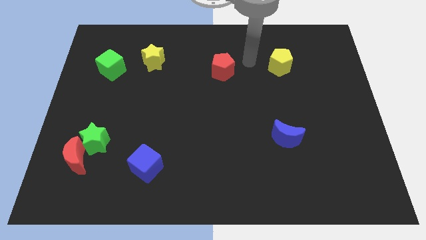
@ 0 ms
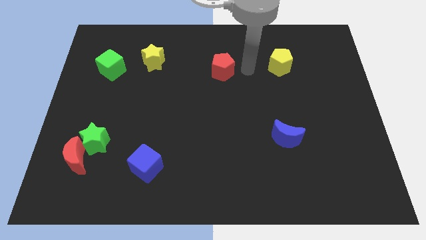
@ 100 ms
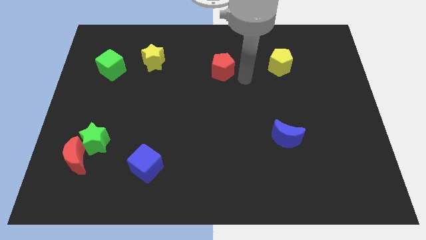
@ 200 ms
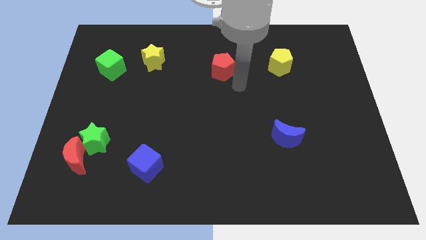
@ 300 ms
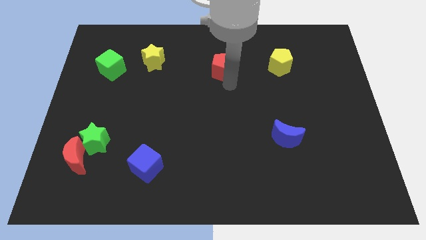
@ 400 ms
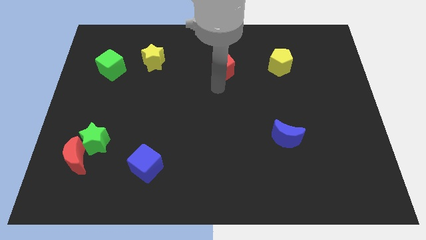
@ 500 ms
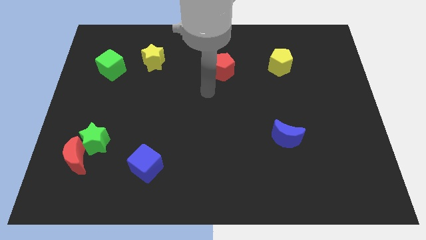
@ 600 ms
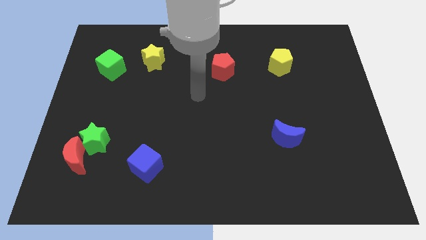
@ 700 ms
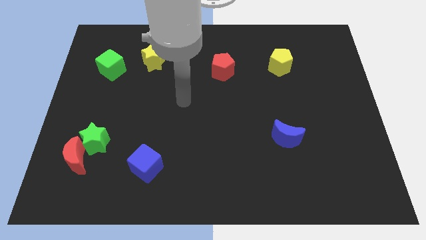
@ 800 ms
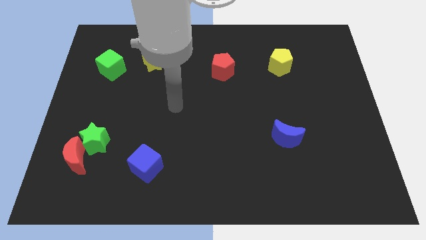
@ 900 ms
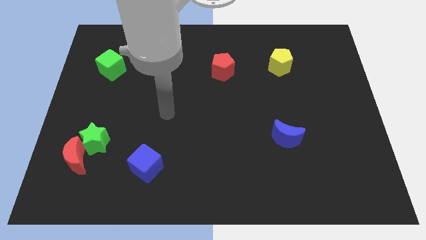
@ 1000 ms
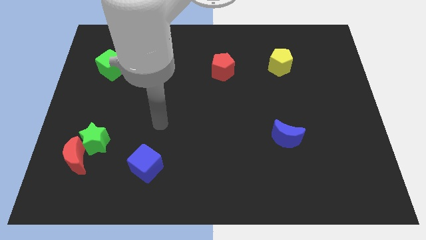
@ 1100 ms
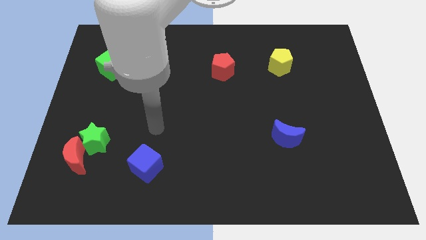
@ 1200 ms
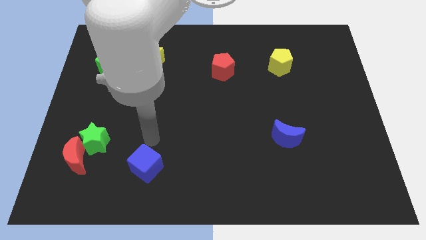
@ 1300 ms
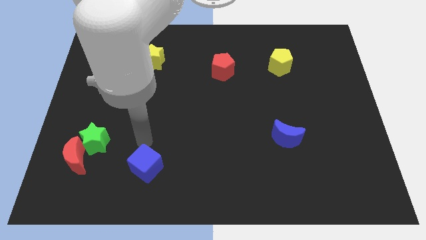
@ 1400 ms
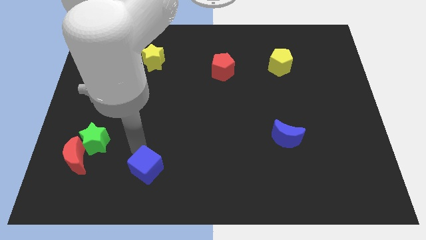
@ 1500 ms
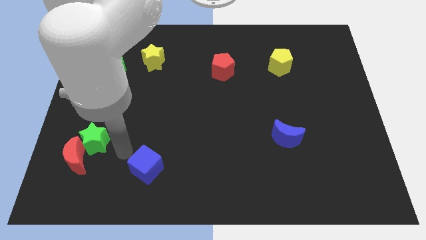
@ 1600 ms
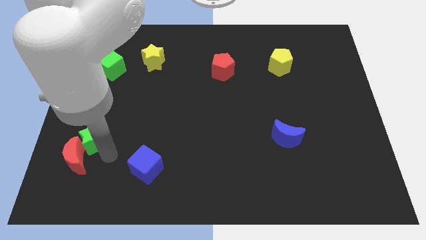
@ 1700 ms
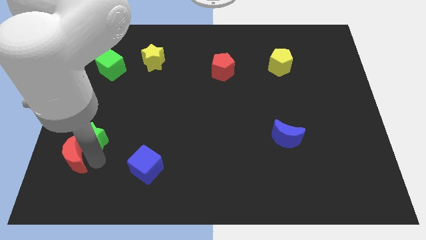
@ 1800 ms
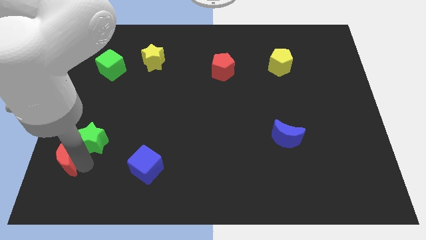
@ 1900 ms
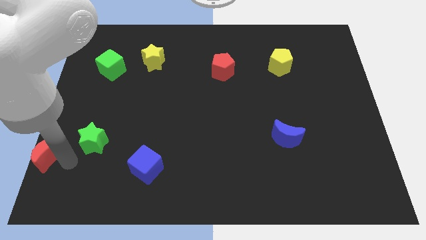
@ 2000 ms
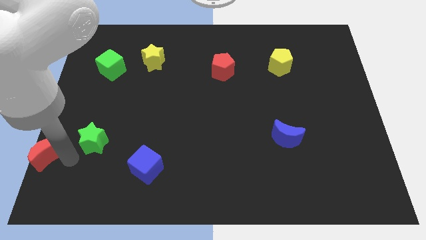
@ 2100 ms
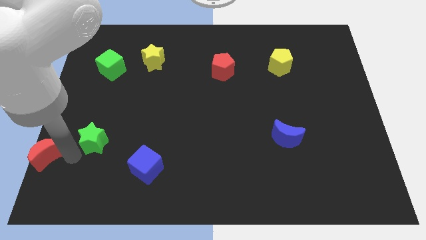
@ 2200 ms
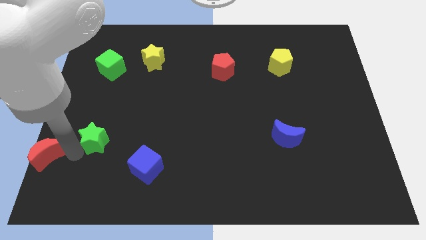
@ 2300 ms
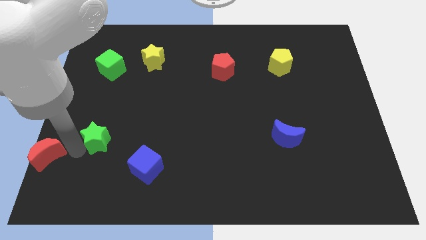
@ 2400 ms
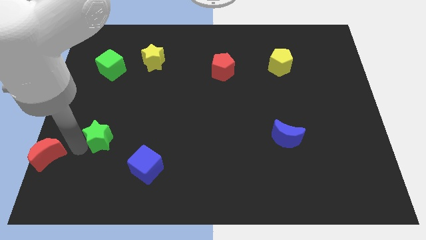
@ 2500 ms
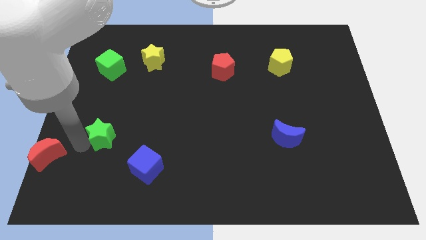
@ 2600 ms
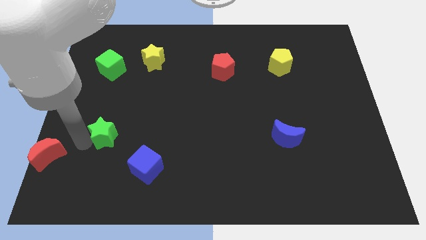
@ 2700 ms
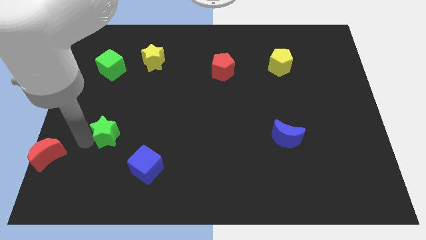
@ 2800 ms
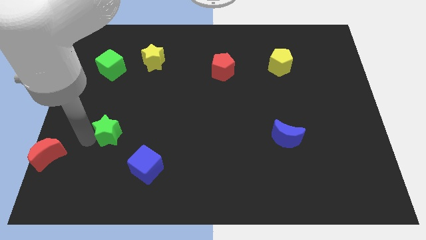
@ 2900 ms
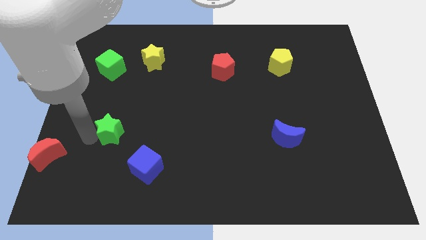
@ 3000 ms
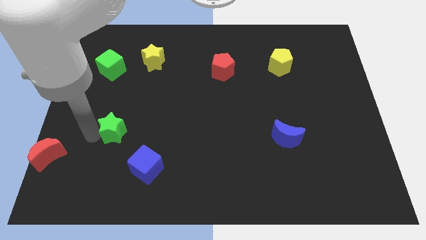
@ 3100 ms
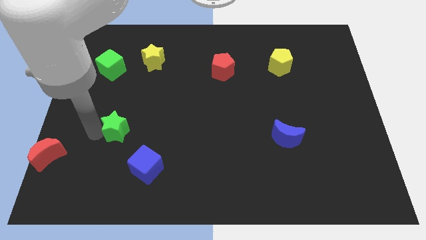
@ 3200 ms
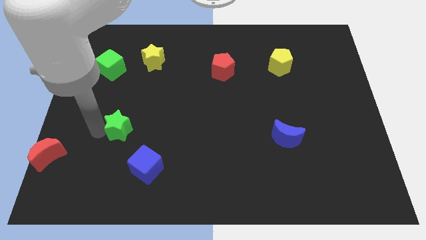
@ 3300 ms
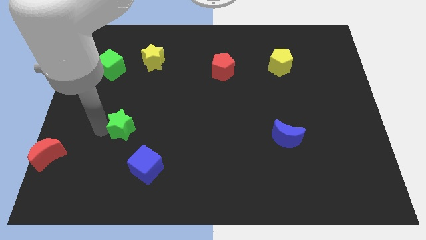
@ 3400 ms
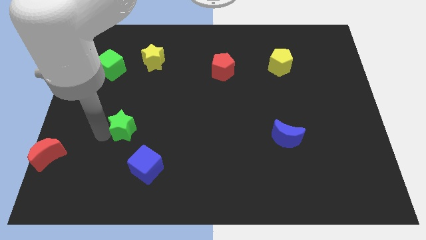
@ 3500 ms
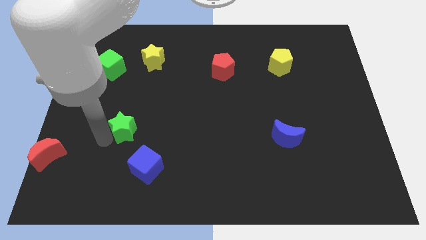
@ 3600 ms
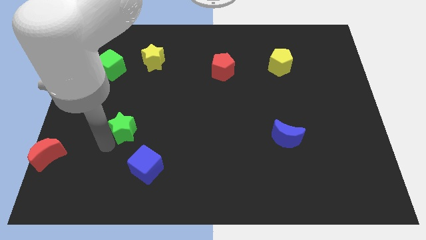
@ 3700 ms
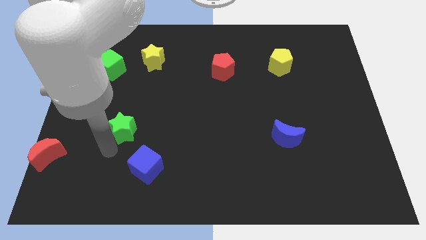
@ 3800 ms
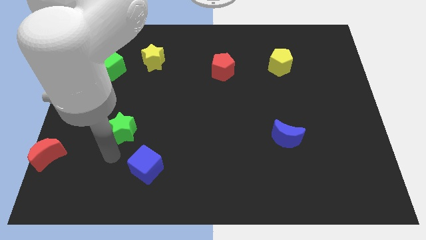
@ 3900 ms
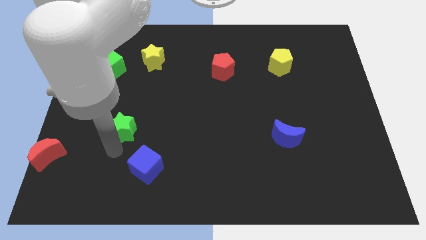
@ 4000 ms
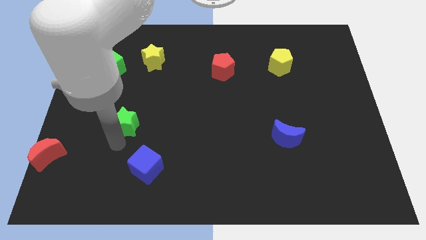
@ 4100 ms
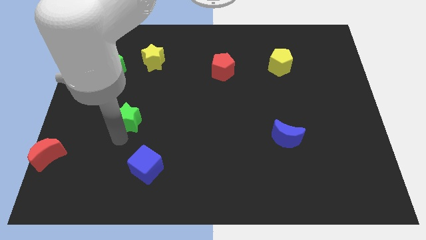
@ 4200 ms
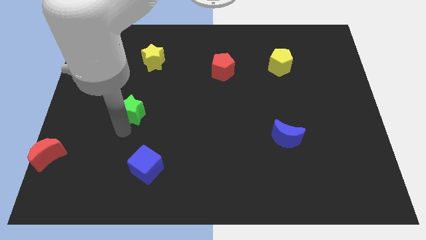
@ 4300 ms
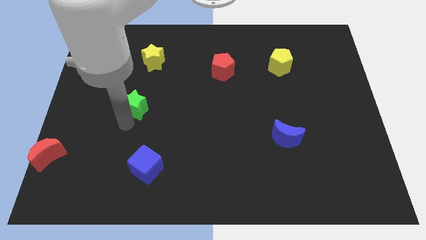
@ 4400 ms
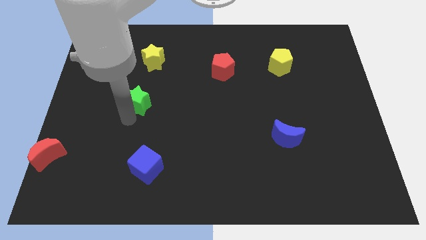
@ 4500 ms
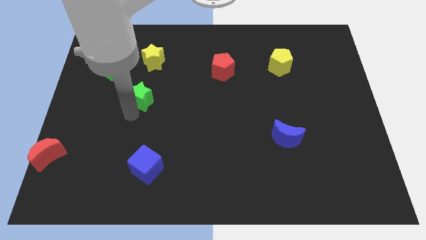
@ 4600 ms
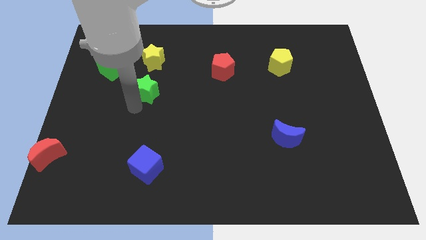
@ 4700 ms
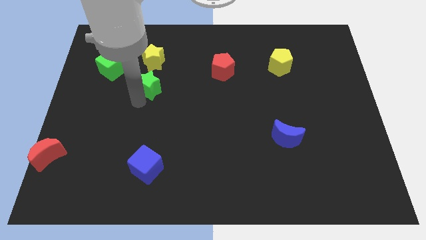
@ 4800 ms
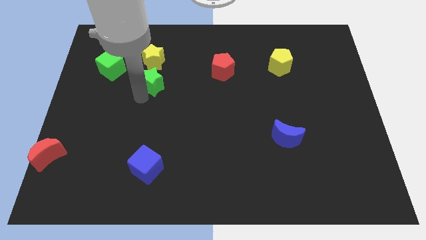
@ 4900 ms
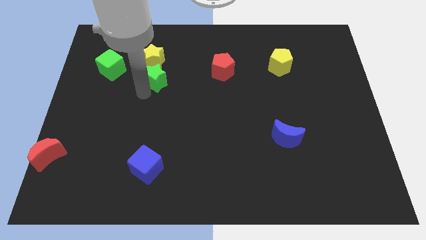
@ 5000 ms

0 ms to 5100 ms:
slide the green star right of the green cube

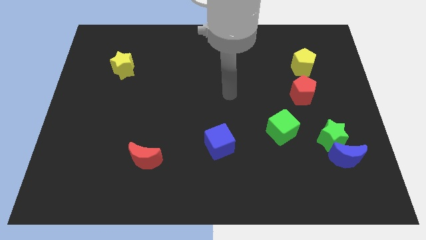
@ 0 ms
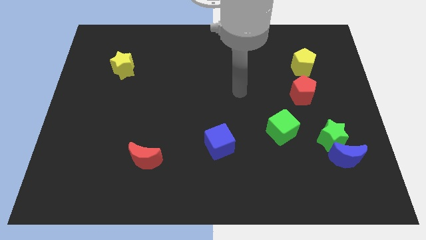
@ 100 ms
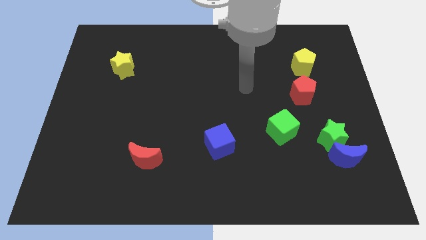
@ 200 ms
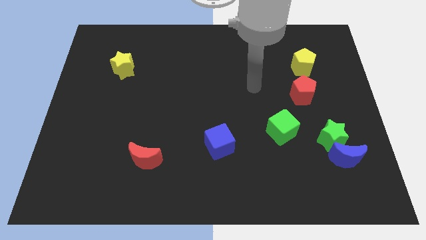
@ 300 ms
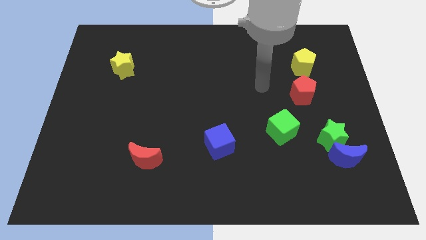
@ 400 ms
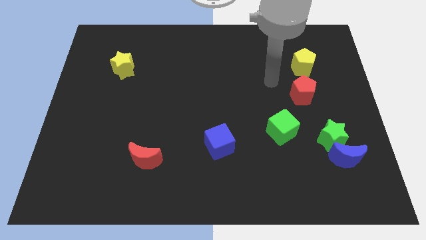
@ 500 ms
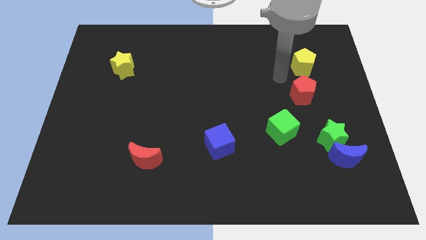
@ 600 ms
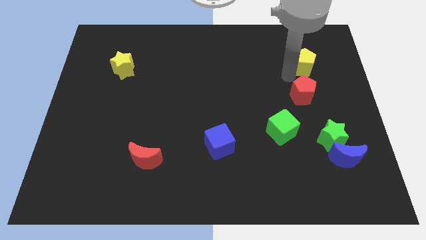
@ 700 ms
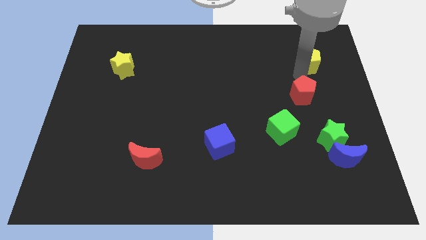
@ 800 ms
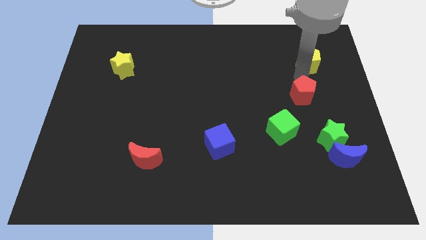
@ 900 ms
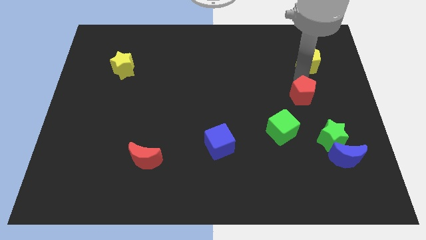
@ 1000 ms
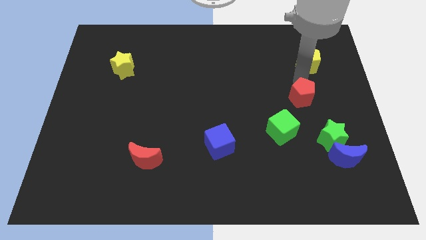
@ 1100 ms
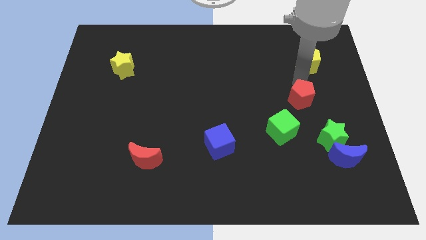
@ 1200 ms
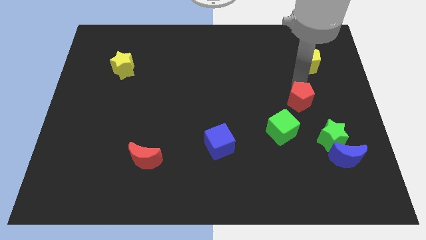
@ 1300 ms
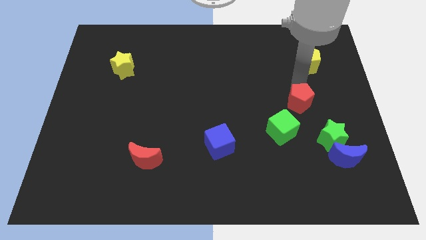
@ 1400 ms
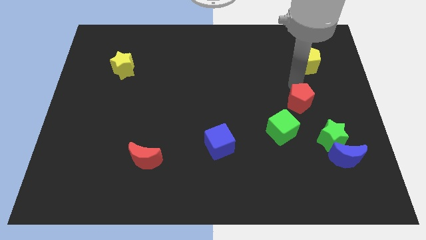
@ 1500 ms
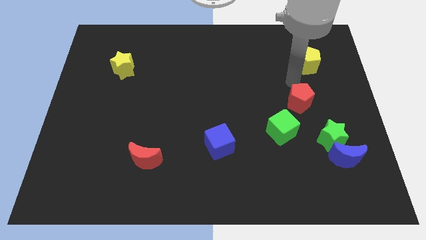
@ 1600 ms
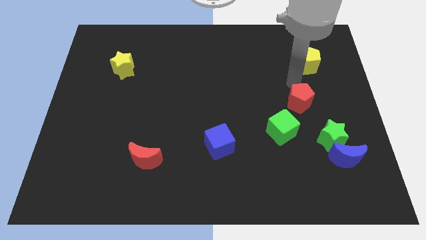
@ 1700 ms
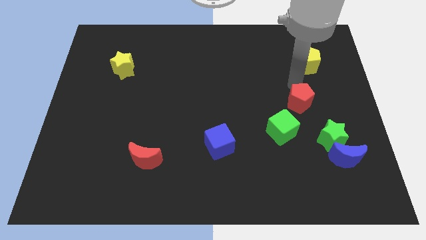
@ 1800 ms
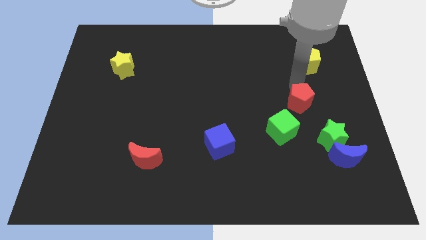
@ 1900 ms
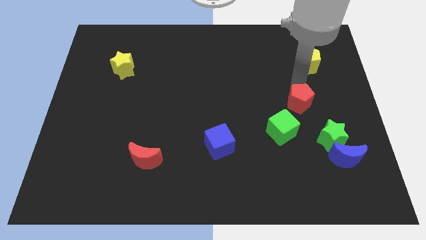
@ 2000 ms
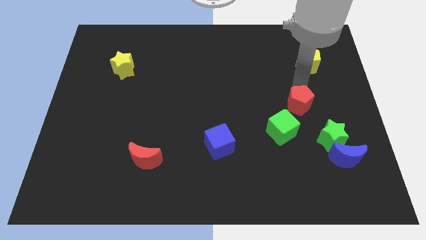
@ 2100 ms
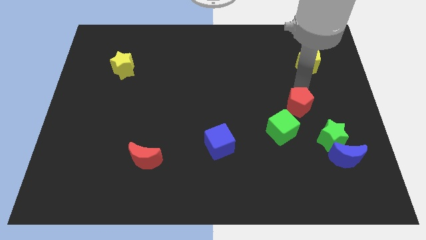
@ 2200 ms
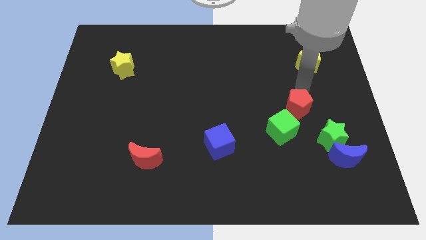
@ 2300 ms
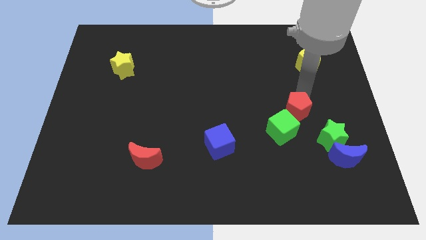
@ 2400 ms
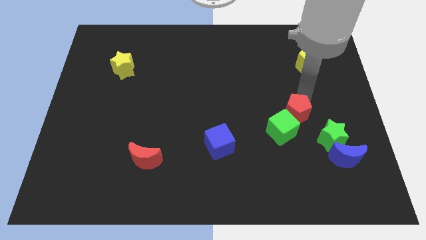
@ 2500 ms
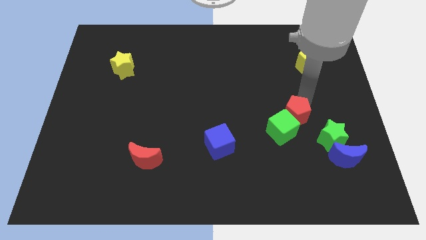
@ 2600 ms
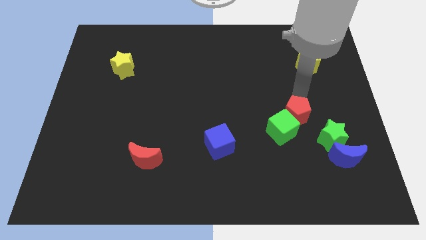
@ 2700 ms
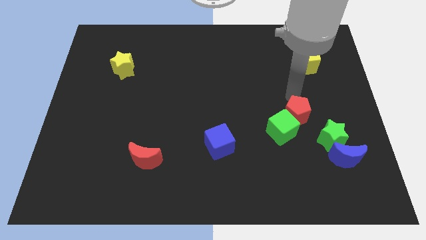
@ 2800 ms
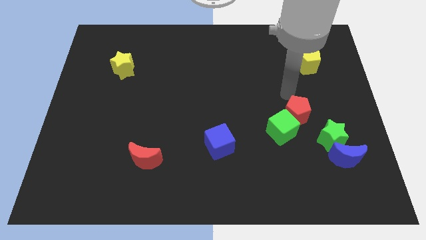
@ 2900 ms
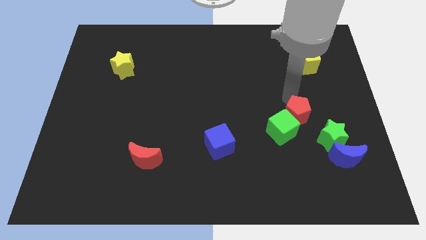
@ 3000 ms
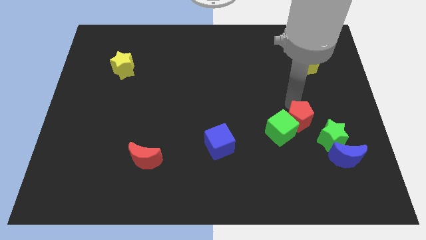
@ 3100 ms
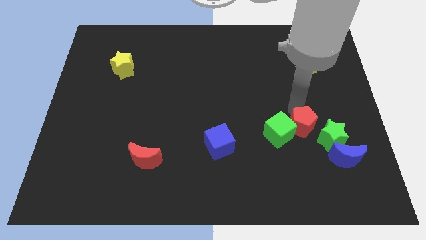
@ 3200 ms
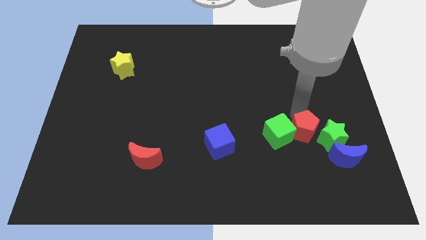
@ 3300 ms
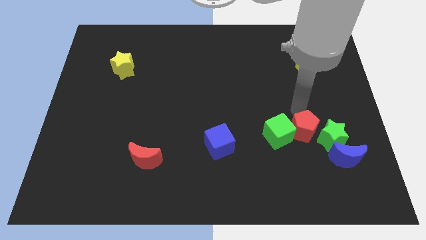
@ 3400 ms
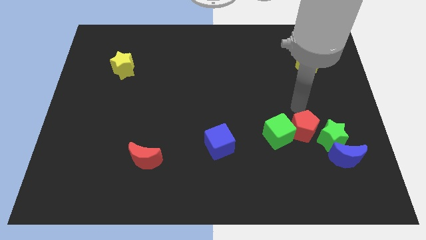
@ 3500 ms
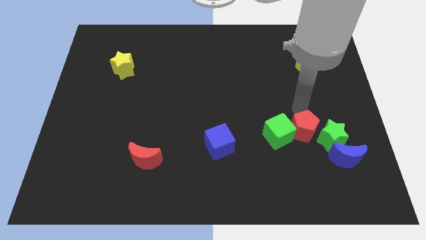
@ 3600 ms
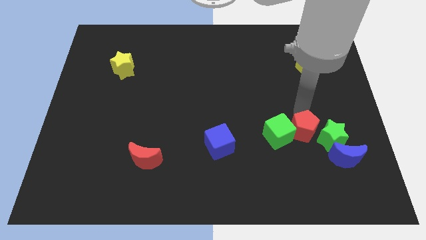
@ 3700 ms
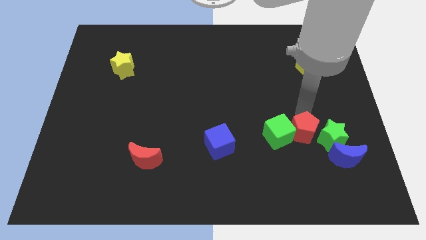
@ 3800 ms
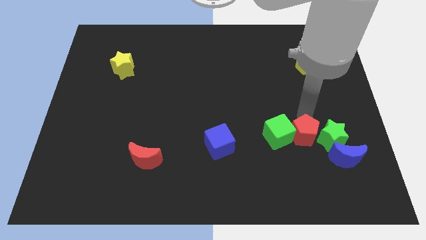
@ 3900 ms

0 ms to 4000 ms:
slide the red pentagon to the bottom left of the green star
